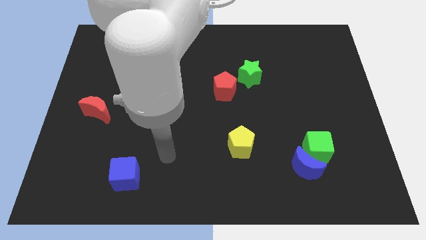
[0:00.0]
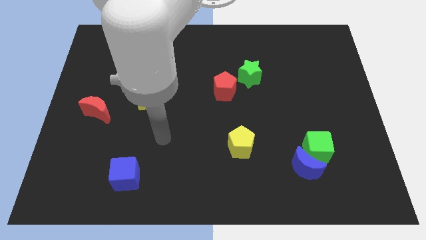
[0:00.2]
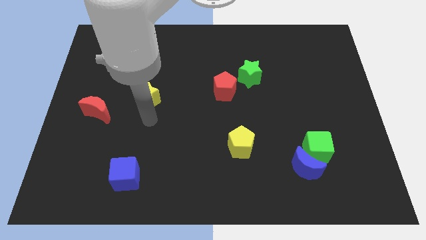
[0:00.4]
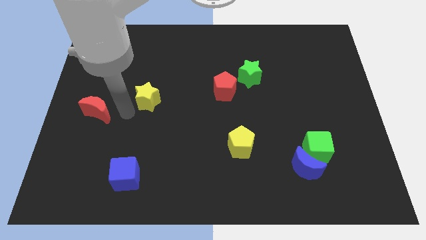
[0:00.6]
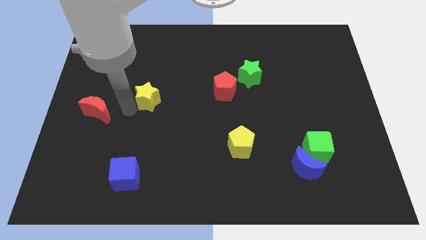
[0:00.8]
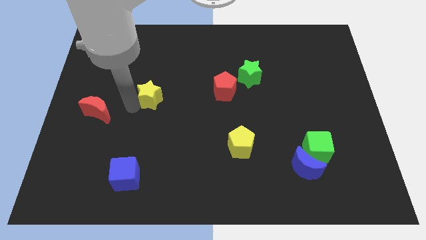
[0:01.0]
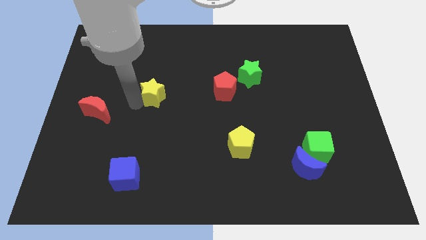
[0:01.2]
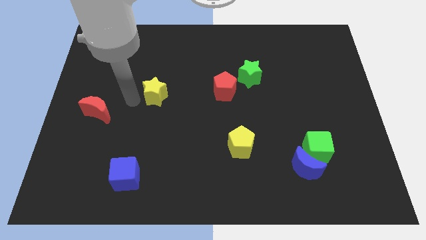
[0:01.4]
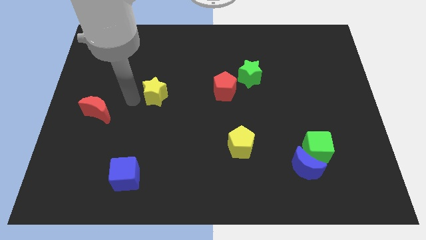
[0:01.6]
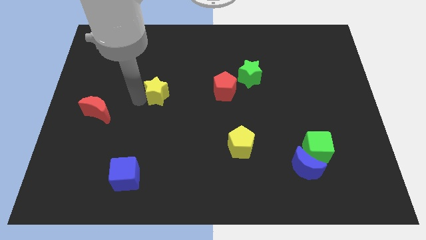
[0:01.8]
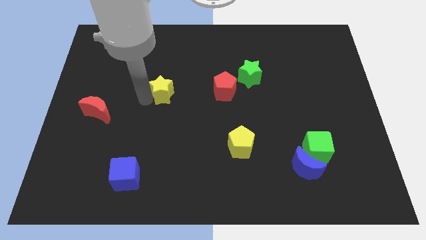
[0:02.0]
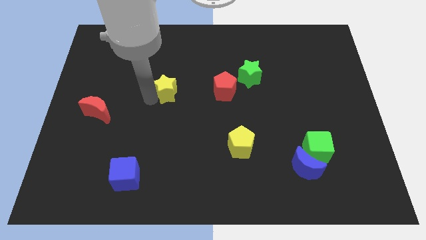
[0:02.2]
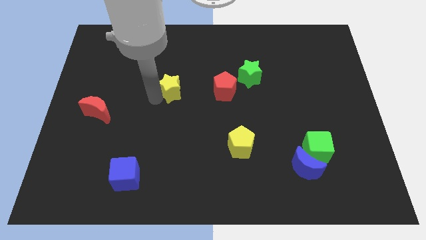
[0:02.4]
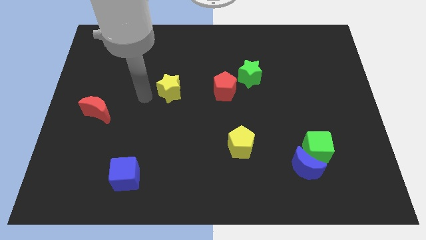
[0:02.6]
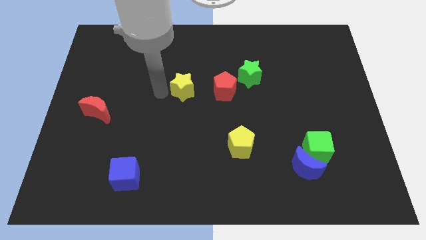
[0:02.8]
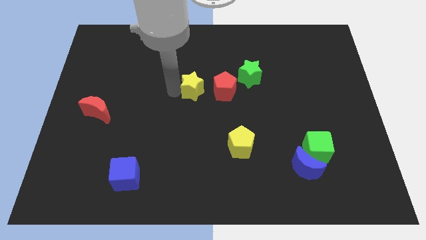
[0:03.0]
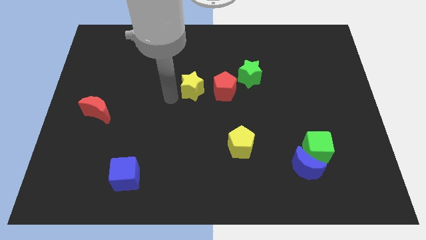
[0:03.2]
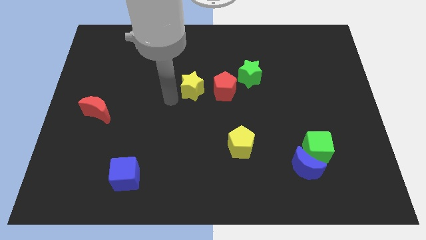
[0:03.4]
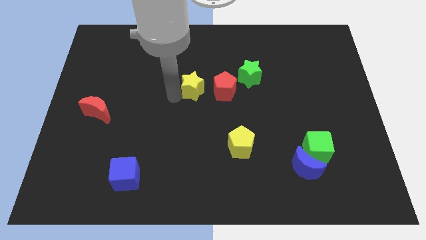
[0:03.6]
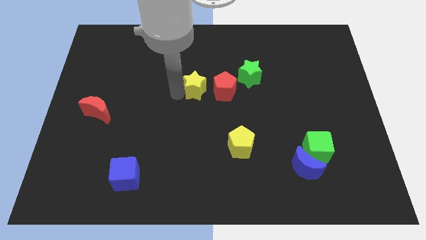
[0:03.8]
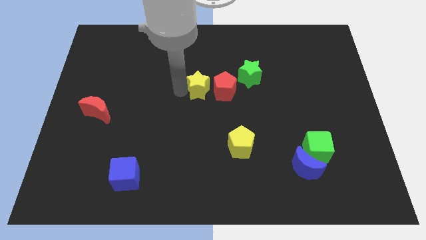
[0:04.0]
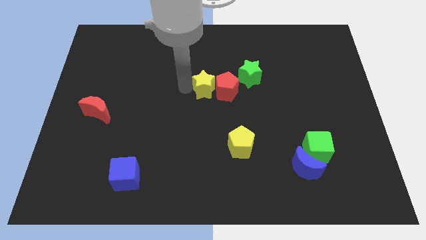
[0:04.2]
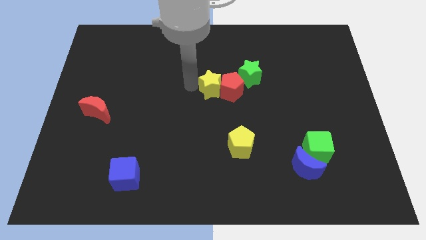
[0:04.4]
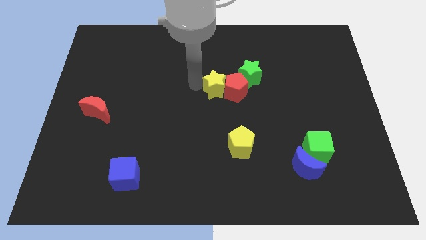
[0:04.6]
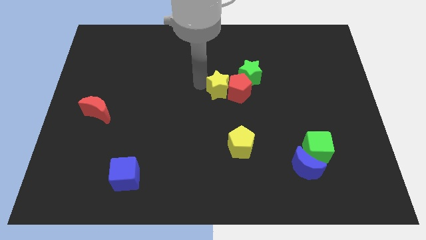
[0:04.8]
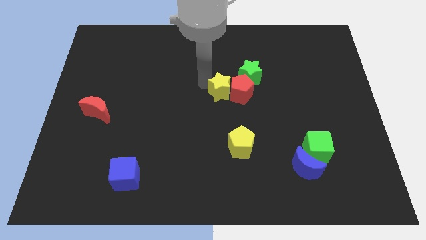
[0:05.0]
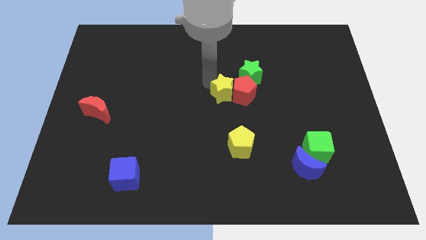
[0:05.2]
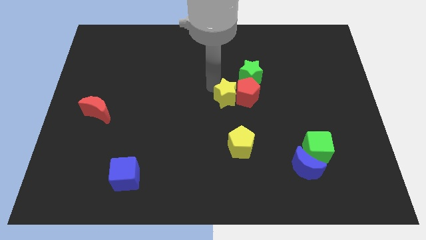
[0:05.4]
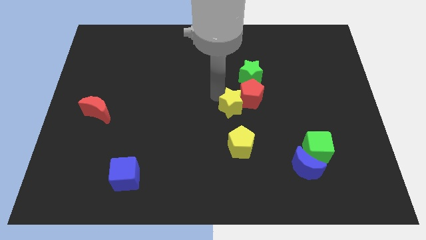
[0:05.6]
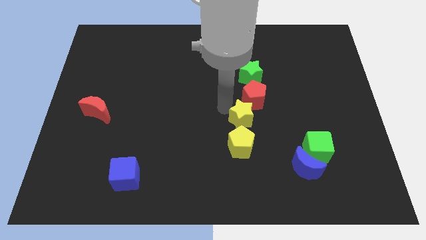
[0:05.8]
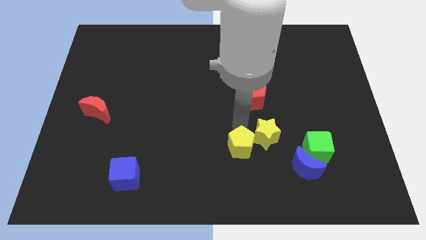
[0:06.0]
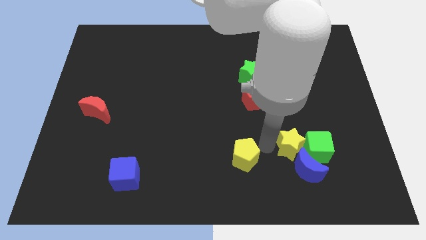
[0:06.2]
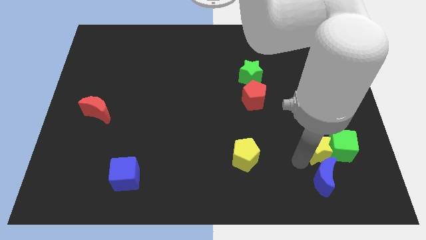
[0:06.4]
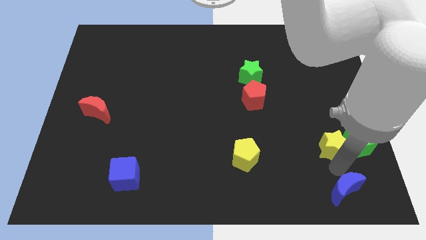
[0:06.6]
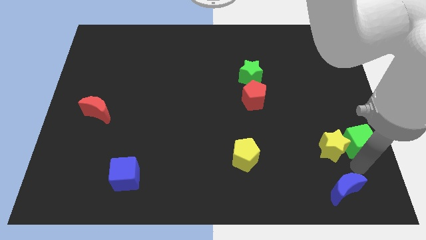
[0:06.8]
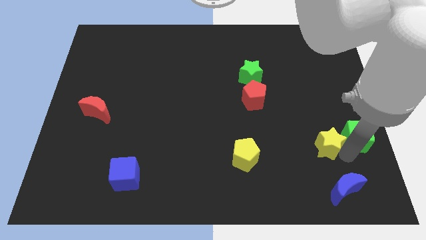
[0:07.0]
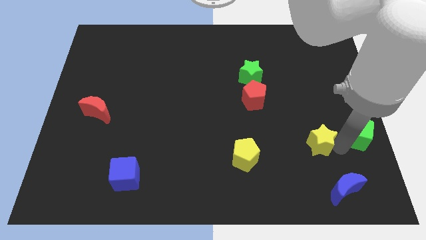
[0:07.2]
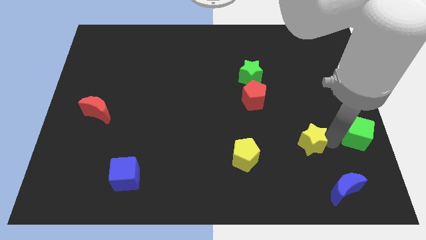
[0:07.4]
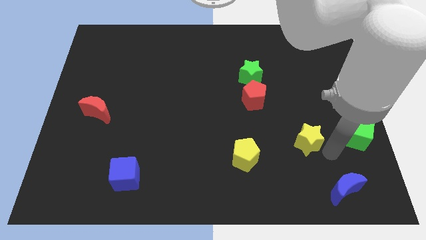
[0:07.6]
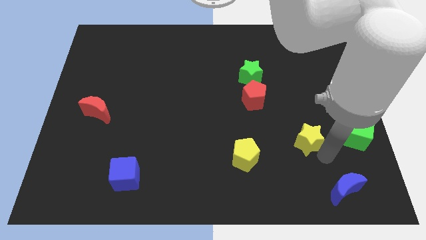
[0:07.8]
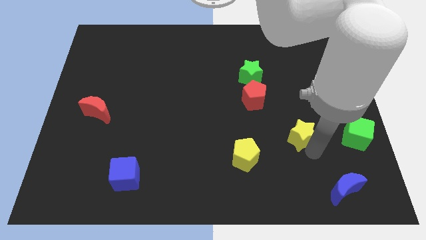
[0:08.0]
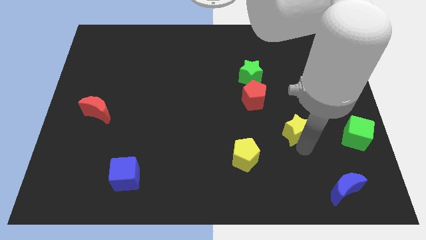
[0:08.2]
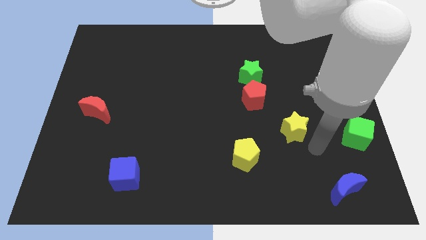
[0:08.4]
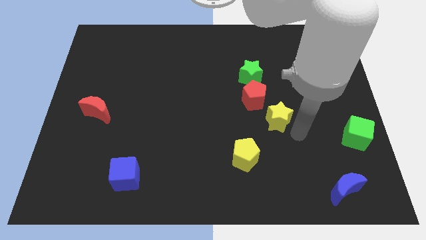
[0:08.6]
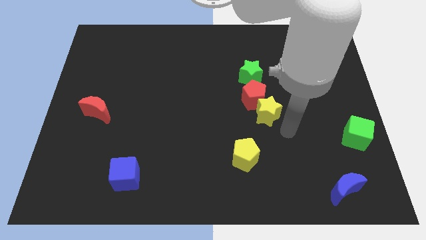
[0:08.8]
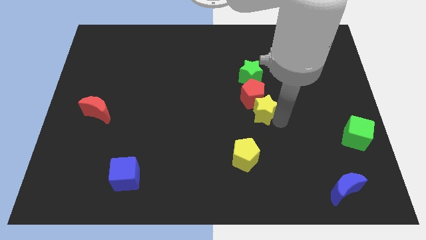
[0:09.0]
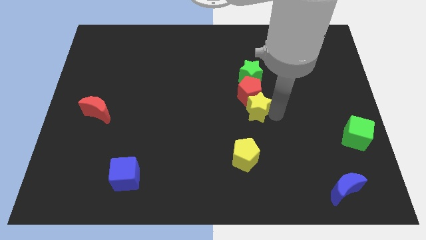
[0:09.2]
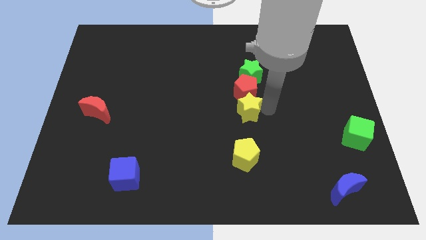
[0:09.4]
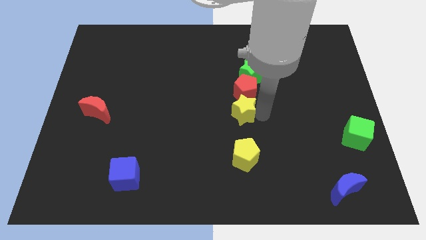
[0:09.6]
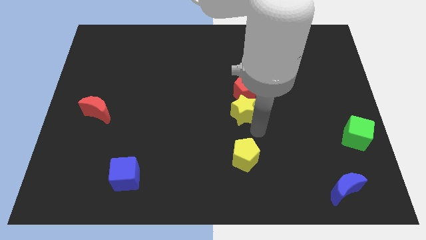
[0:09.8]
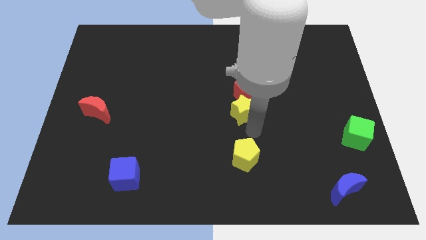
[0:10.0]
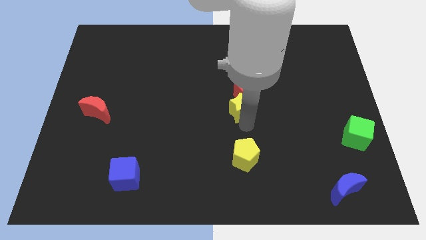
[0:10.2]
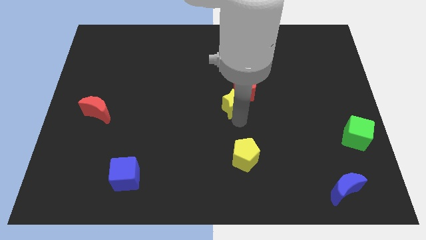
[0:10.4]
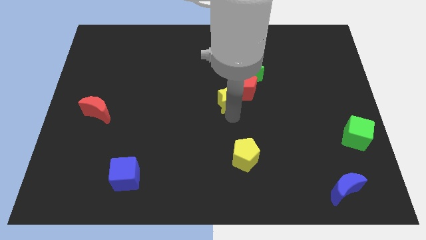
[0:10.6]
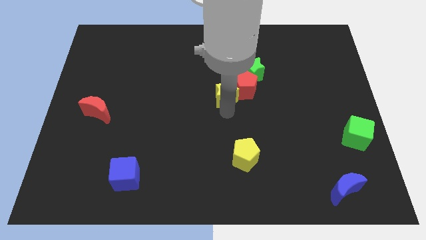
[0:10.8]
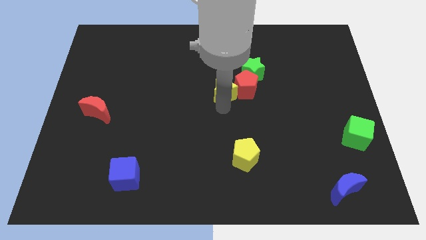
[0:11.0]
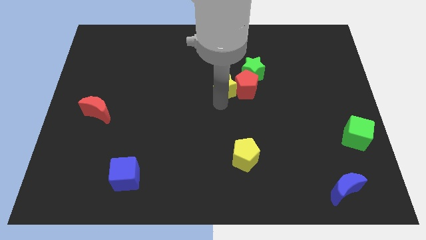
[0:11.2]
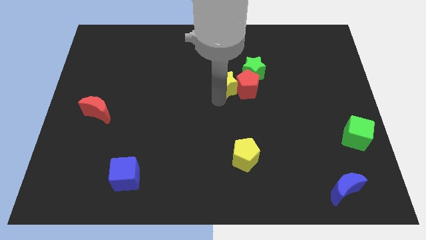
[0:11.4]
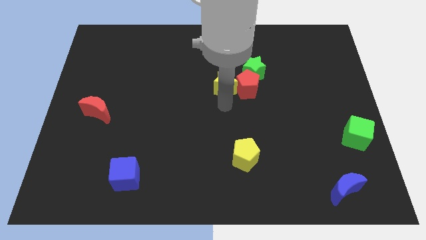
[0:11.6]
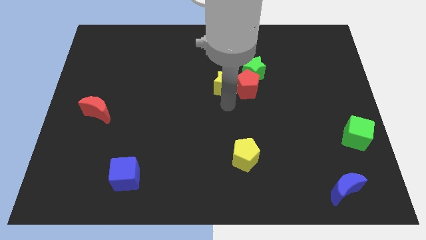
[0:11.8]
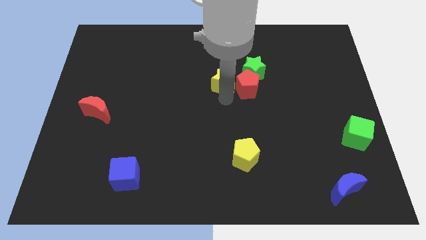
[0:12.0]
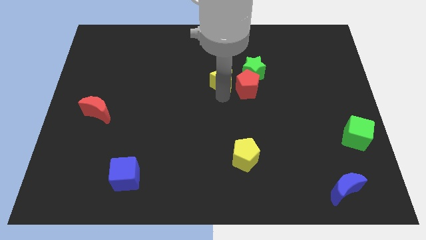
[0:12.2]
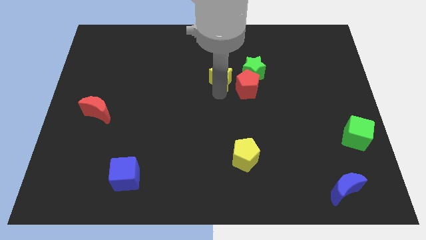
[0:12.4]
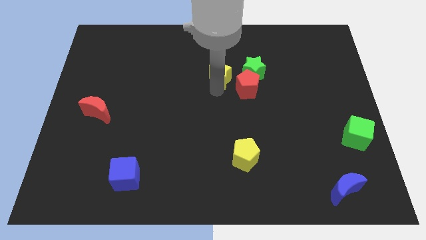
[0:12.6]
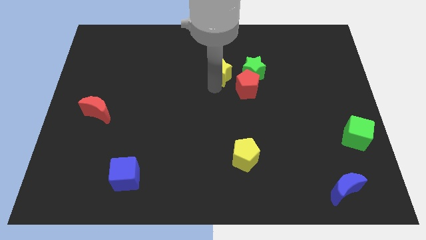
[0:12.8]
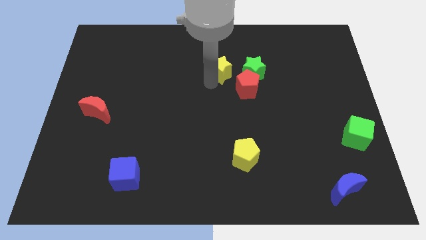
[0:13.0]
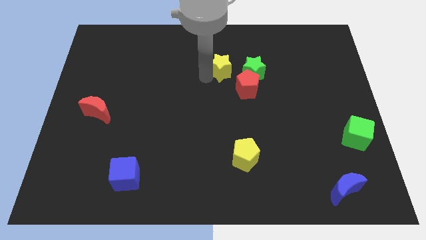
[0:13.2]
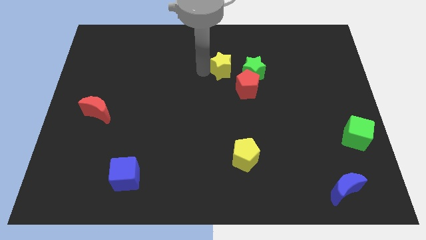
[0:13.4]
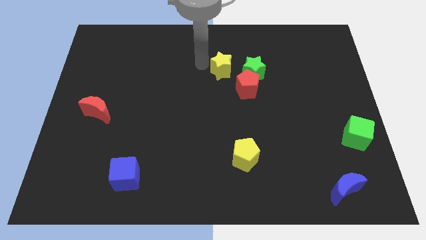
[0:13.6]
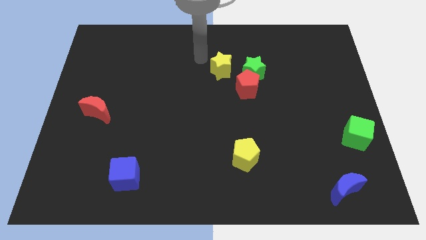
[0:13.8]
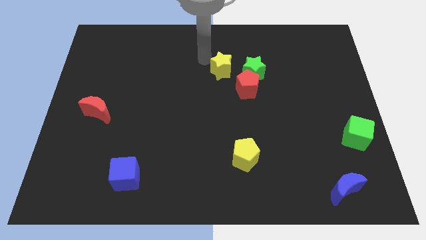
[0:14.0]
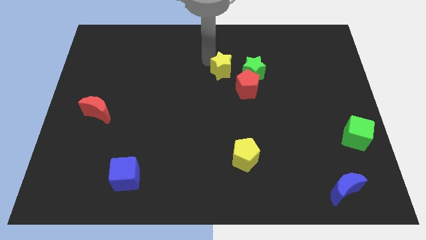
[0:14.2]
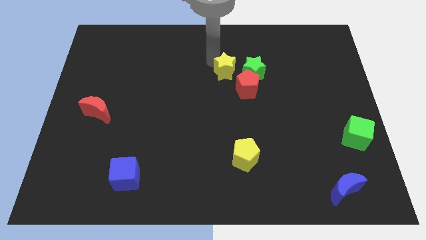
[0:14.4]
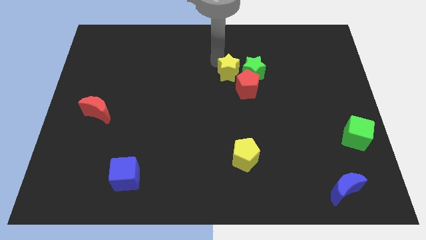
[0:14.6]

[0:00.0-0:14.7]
slide the yellow star close to the green star
